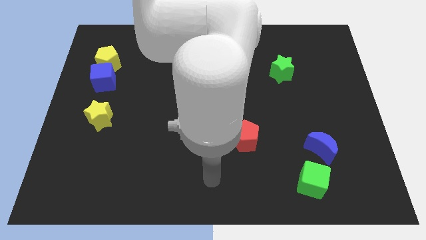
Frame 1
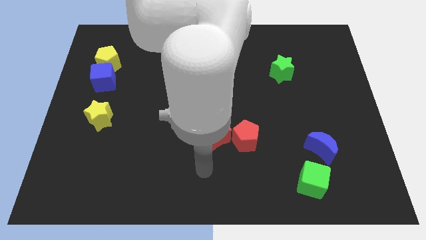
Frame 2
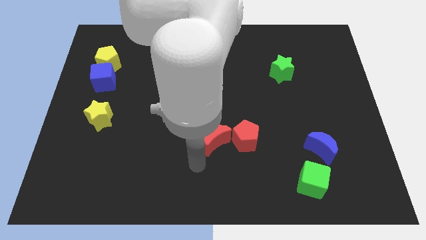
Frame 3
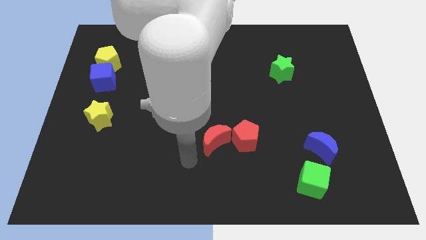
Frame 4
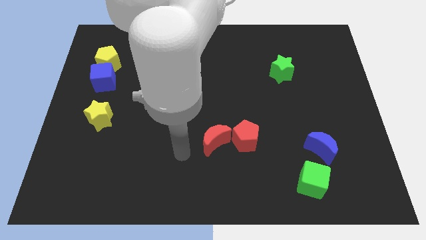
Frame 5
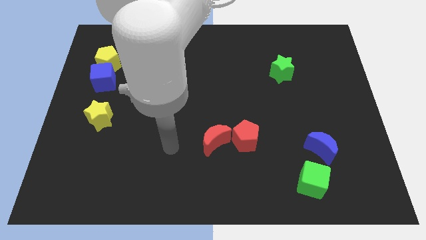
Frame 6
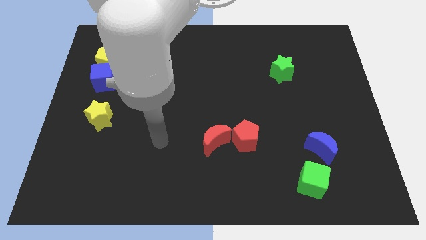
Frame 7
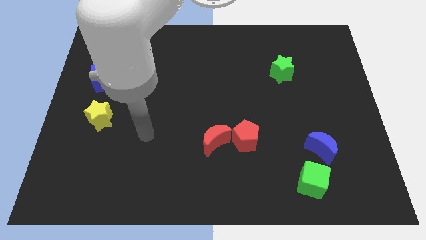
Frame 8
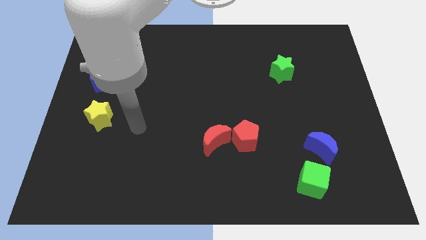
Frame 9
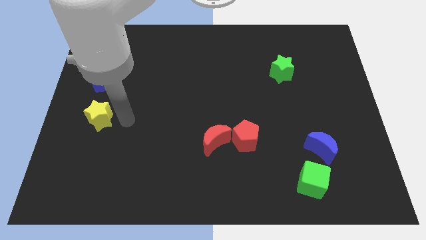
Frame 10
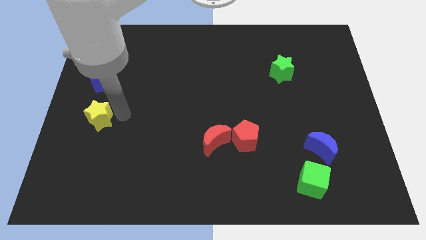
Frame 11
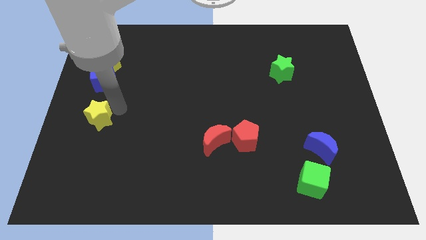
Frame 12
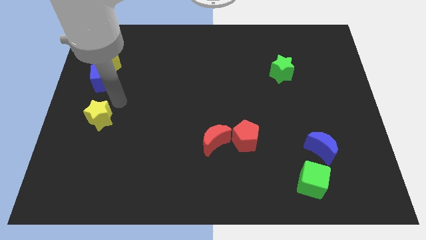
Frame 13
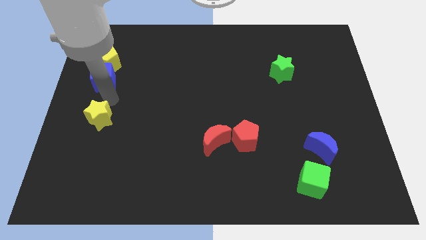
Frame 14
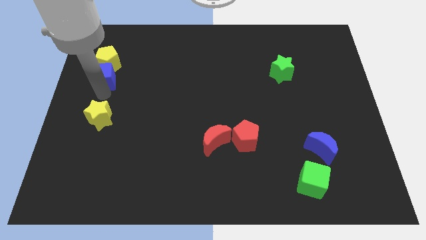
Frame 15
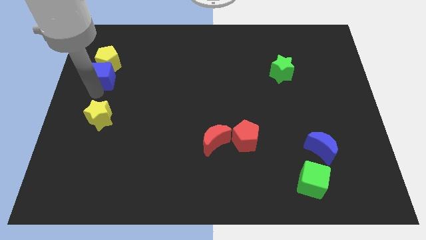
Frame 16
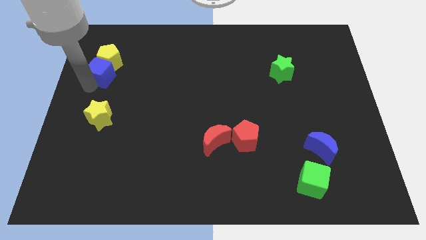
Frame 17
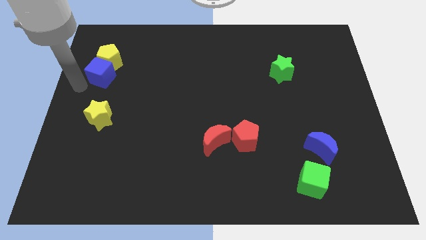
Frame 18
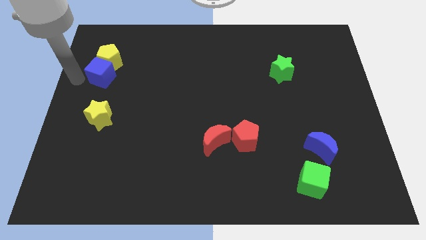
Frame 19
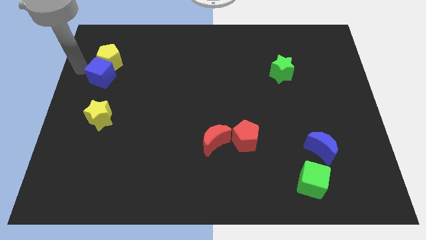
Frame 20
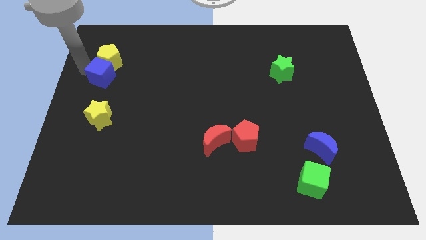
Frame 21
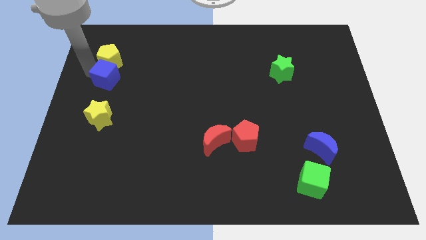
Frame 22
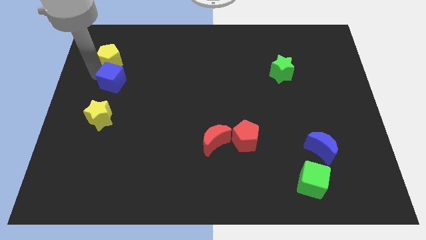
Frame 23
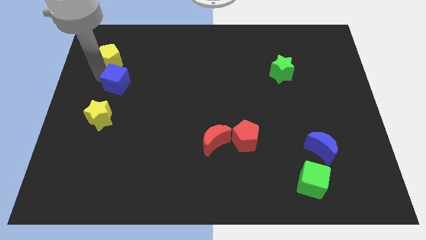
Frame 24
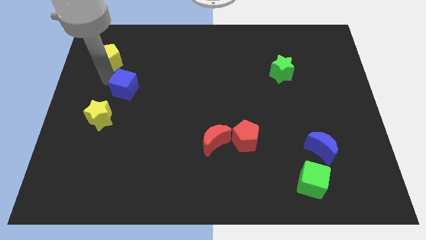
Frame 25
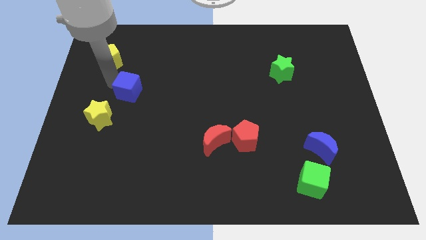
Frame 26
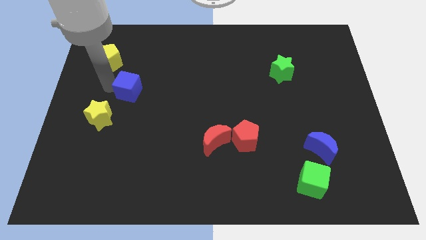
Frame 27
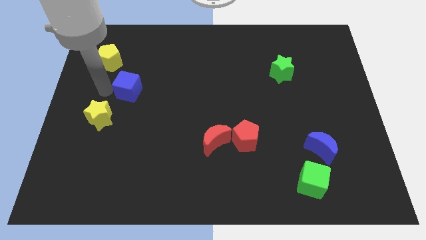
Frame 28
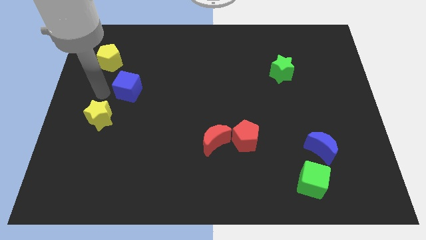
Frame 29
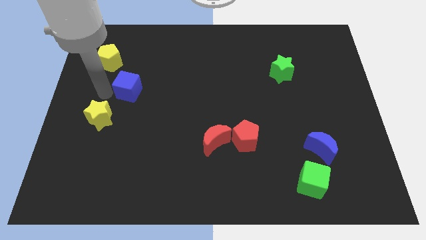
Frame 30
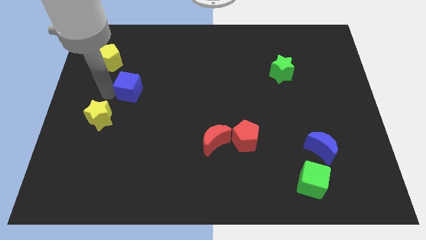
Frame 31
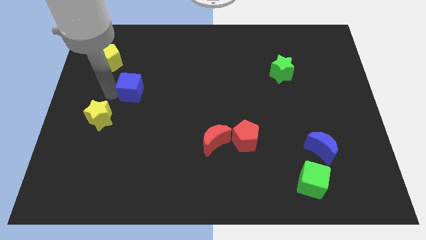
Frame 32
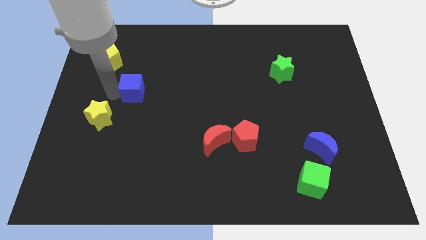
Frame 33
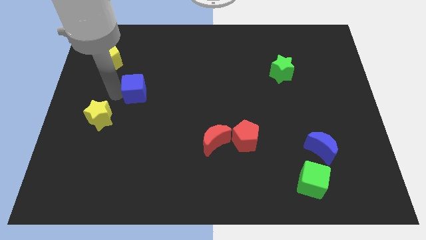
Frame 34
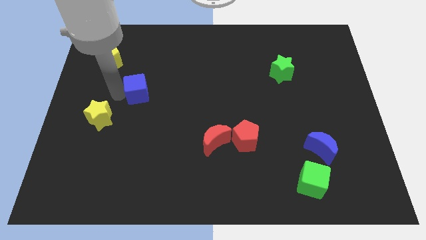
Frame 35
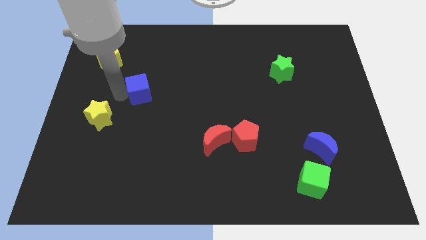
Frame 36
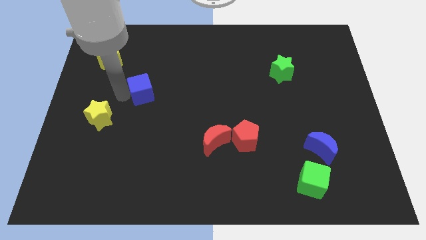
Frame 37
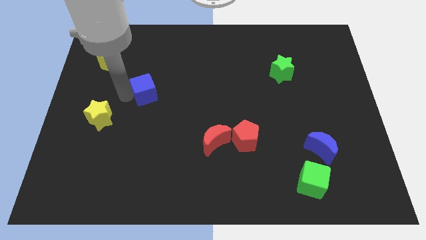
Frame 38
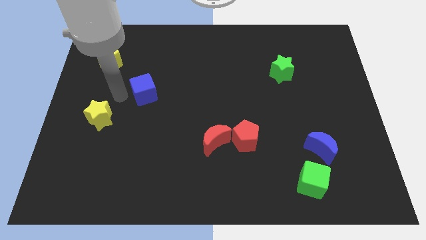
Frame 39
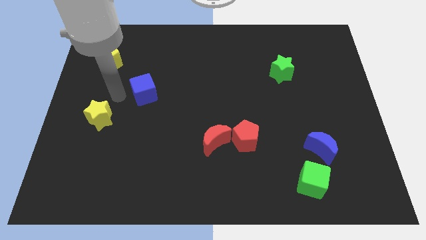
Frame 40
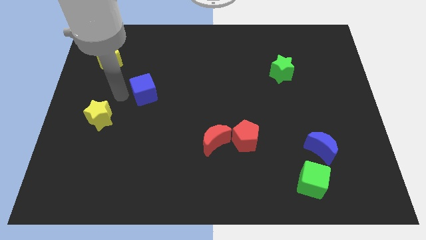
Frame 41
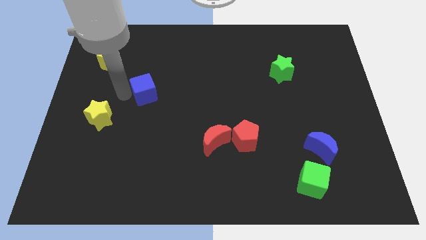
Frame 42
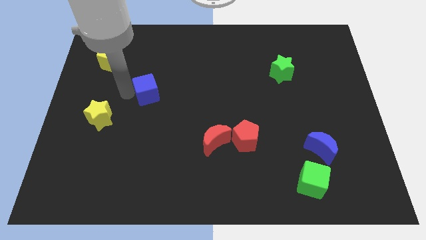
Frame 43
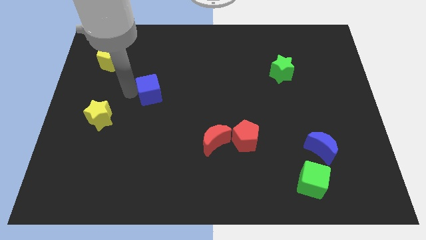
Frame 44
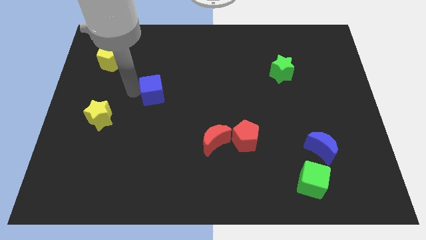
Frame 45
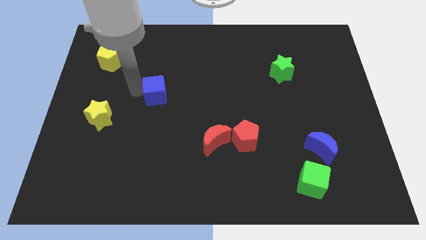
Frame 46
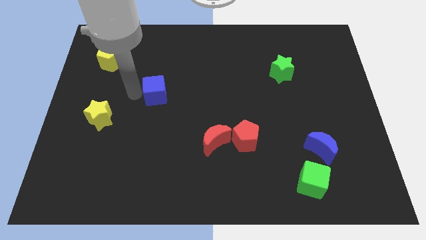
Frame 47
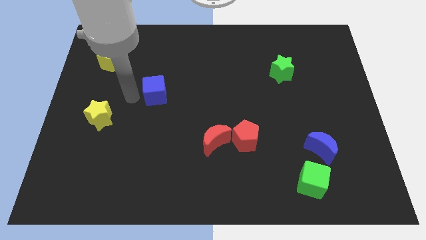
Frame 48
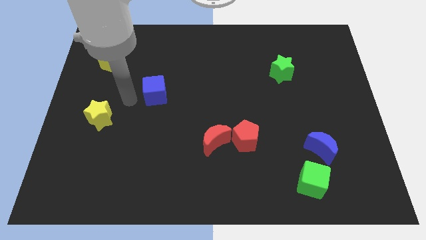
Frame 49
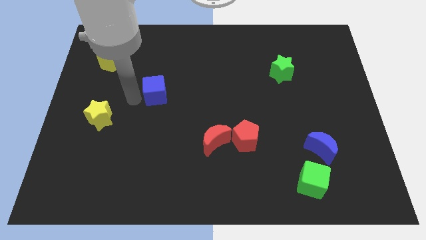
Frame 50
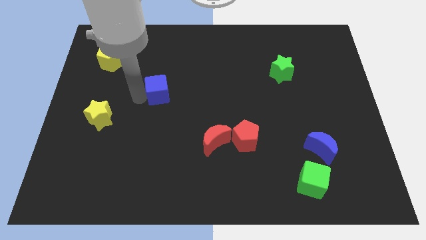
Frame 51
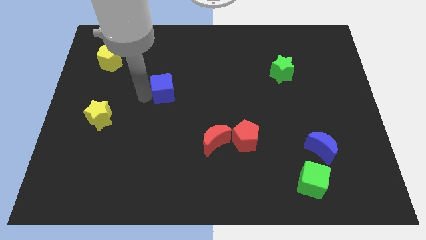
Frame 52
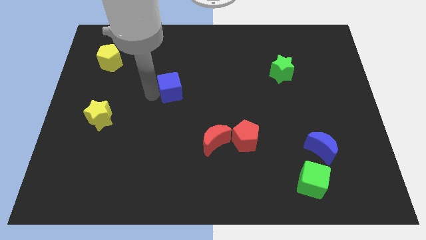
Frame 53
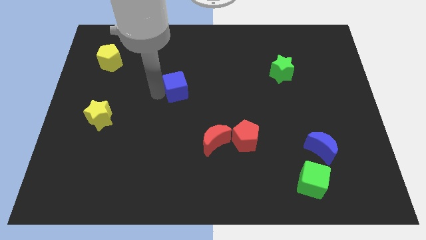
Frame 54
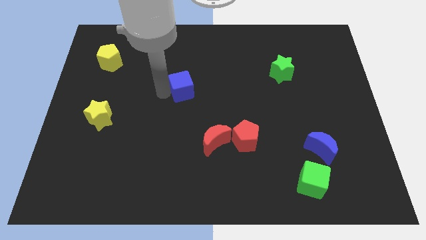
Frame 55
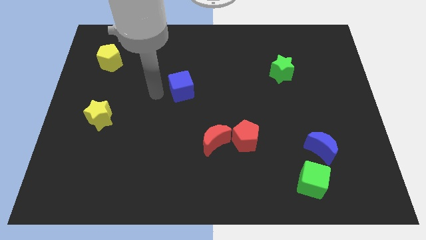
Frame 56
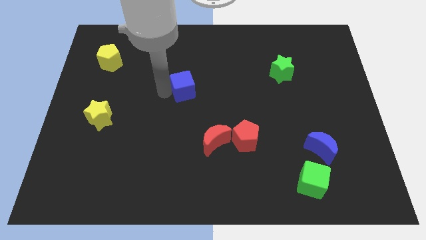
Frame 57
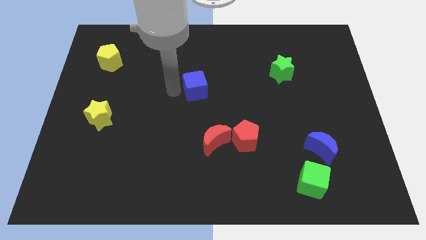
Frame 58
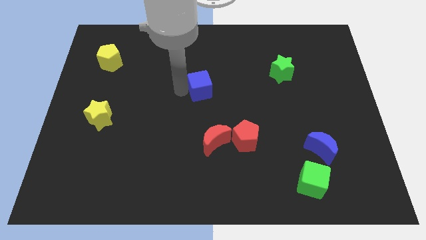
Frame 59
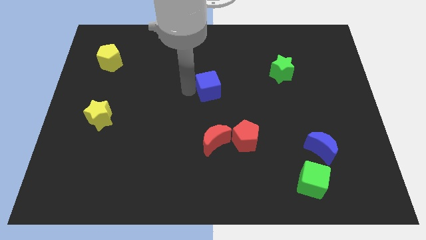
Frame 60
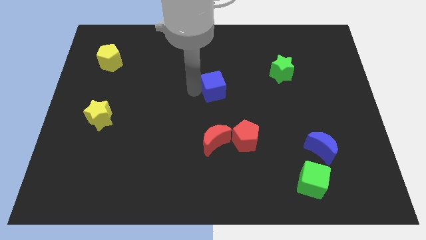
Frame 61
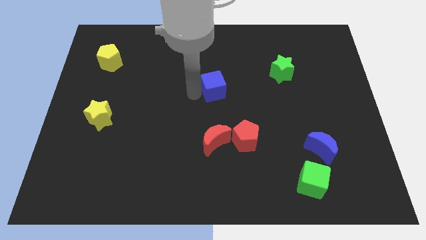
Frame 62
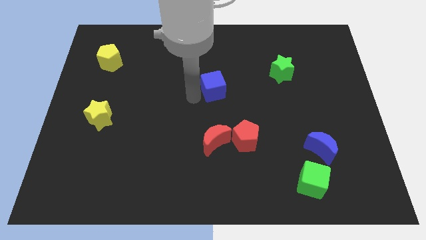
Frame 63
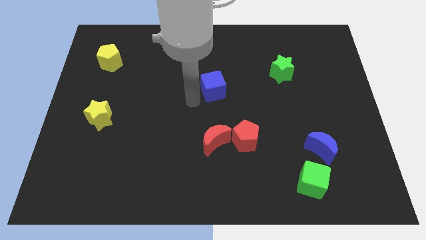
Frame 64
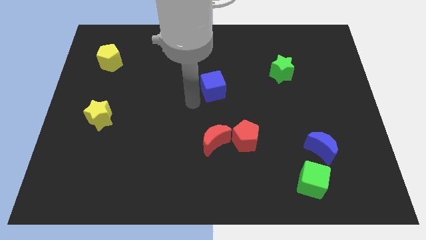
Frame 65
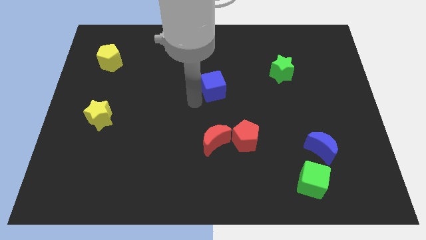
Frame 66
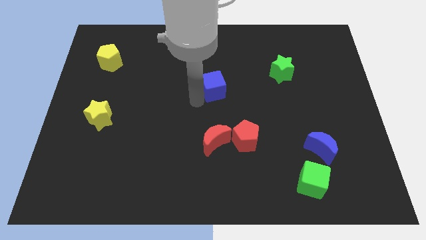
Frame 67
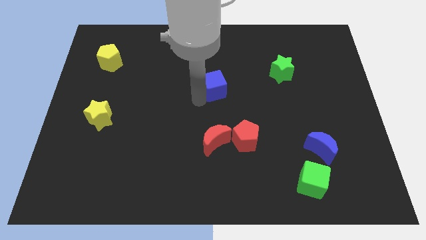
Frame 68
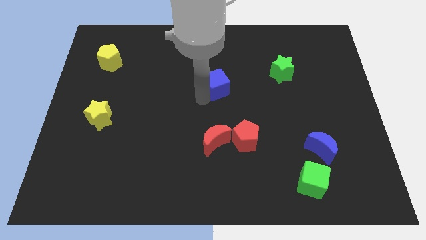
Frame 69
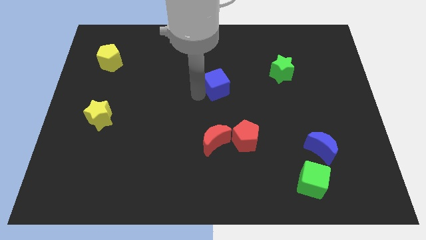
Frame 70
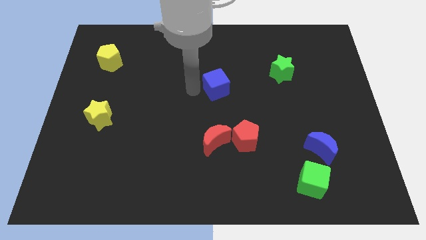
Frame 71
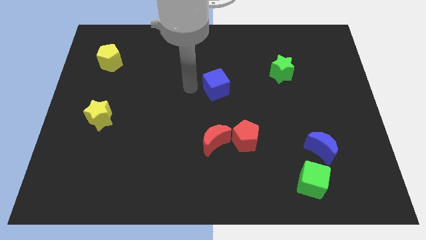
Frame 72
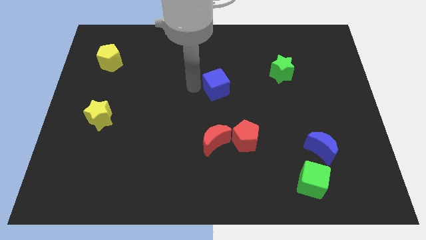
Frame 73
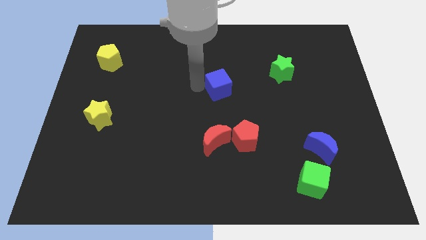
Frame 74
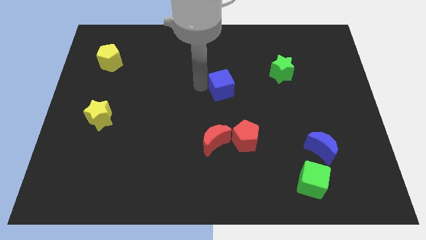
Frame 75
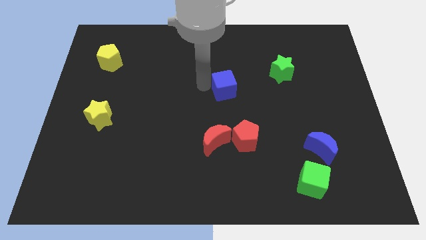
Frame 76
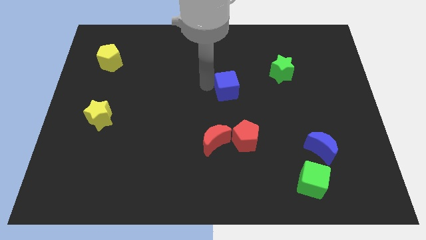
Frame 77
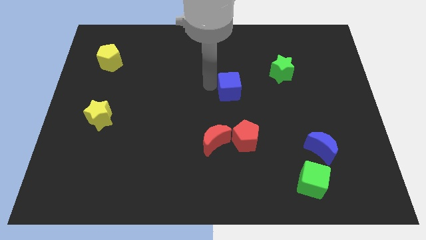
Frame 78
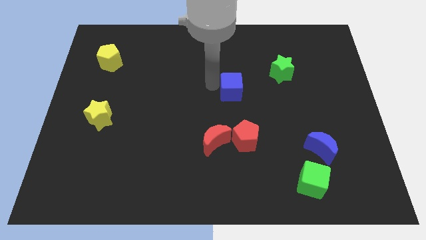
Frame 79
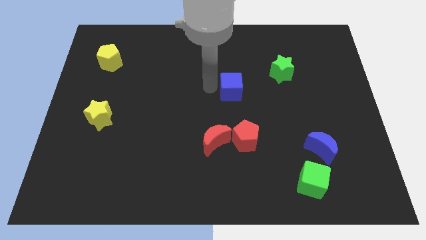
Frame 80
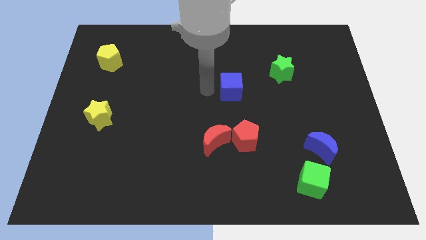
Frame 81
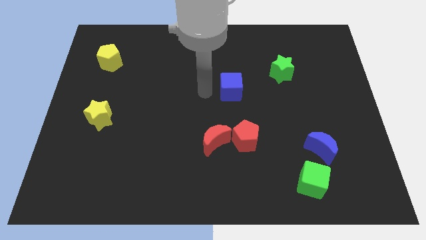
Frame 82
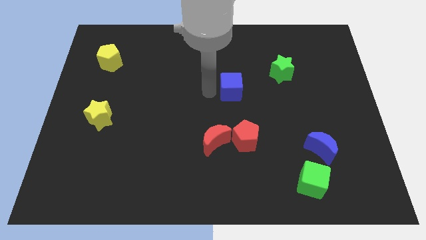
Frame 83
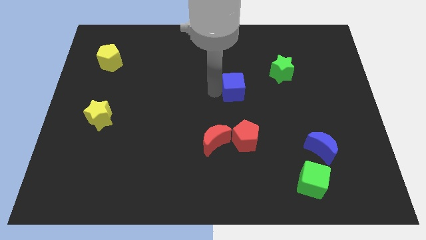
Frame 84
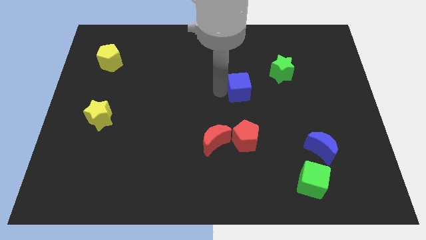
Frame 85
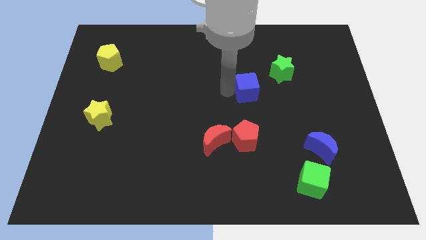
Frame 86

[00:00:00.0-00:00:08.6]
slide the blue cube diagonally down and to the left of the green star
